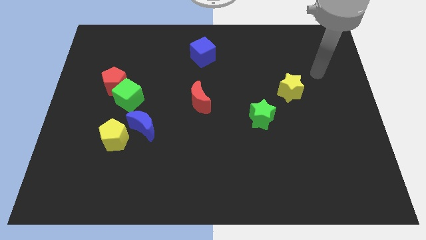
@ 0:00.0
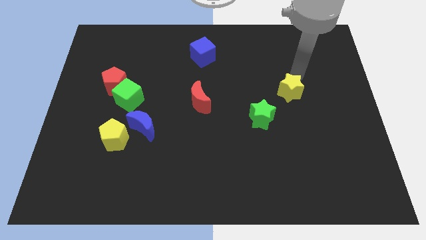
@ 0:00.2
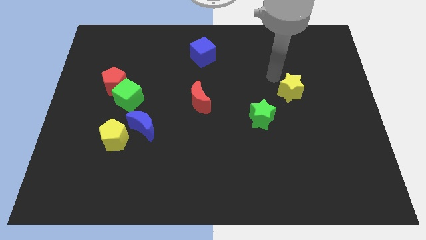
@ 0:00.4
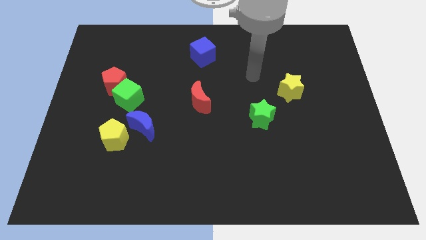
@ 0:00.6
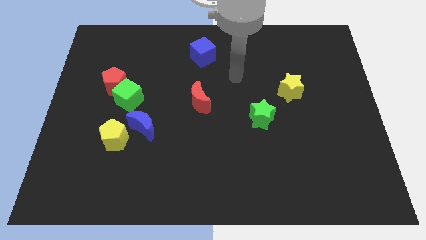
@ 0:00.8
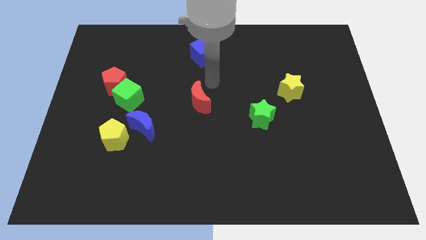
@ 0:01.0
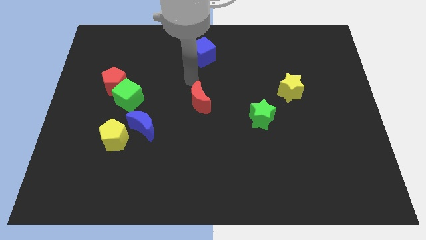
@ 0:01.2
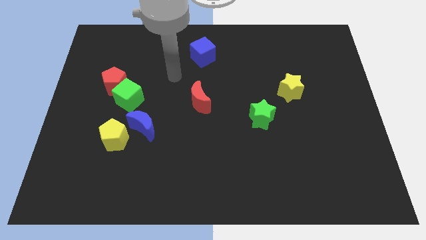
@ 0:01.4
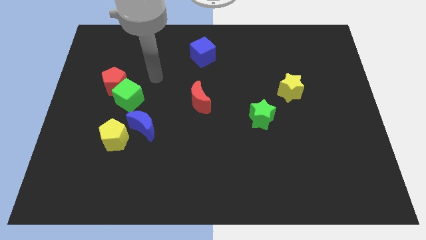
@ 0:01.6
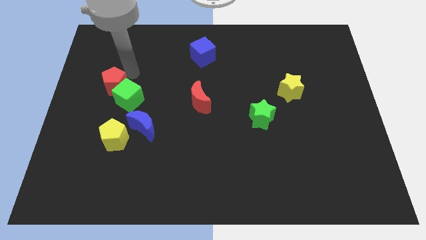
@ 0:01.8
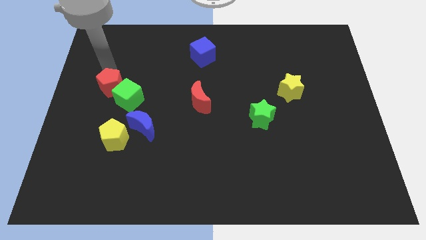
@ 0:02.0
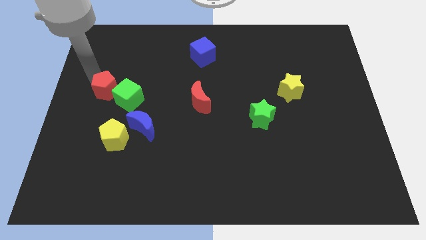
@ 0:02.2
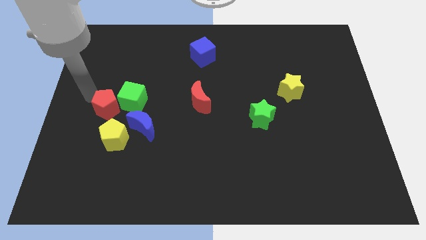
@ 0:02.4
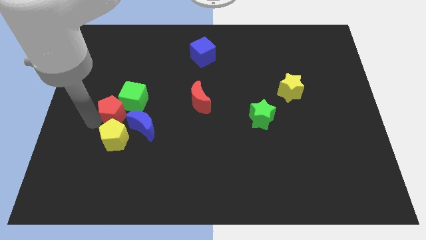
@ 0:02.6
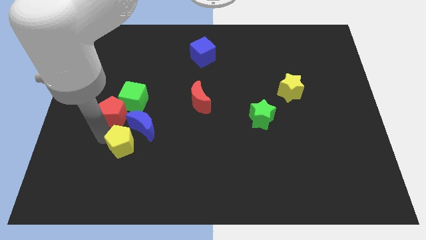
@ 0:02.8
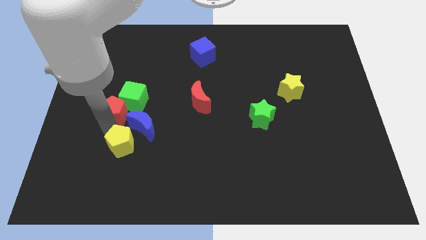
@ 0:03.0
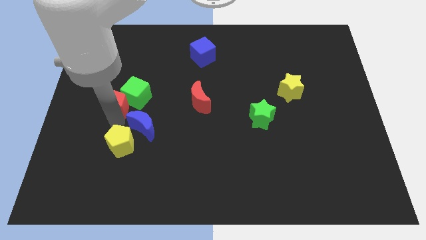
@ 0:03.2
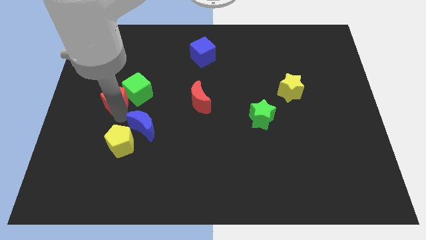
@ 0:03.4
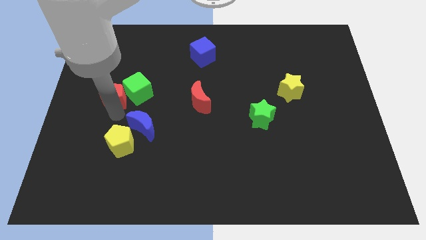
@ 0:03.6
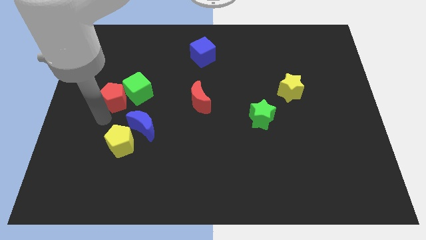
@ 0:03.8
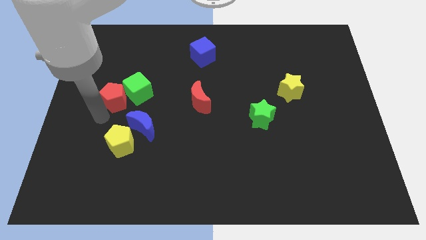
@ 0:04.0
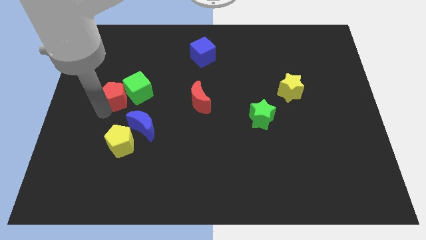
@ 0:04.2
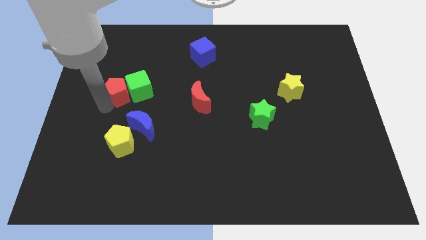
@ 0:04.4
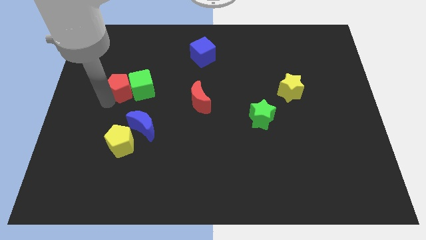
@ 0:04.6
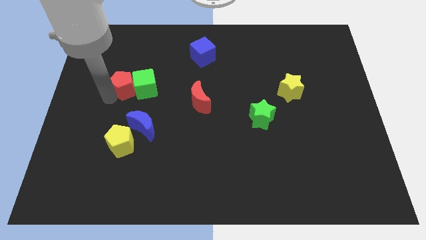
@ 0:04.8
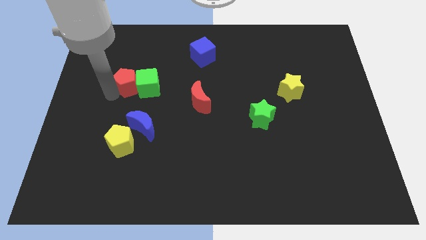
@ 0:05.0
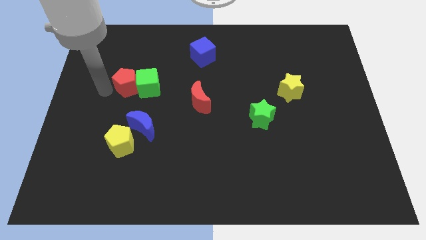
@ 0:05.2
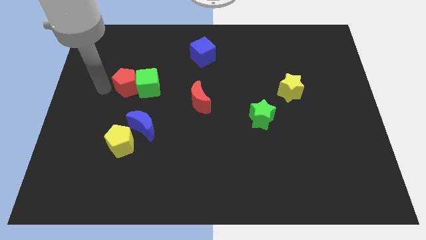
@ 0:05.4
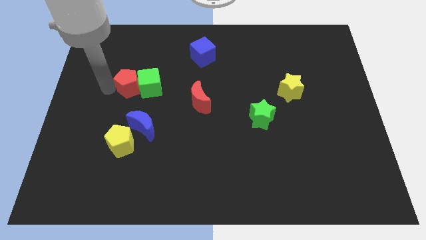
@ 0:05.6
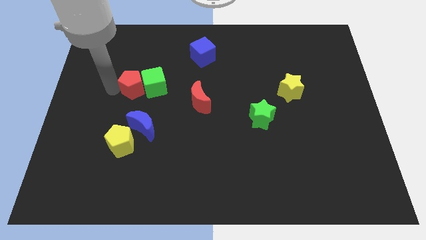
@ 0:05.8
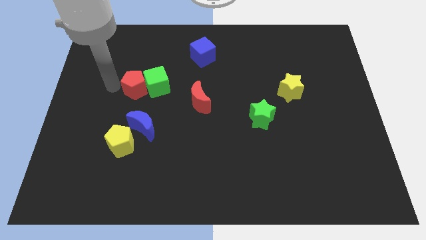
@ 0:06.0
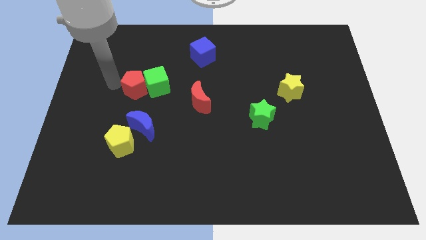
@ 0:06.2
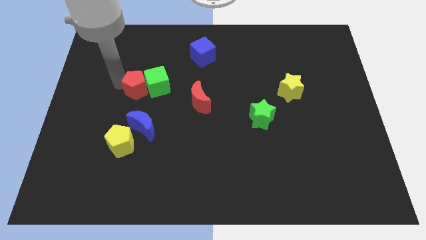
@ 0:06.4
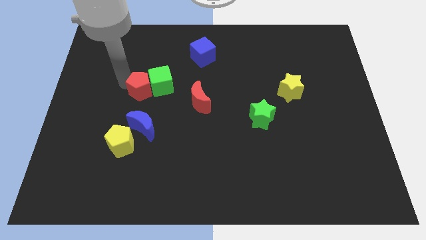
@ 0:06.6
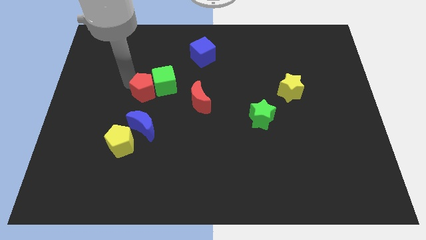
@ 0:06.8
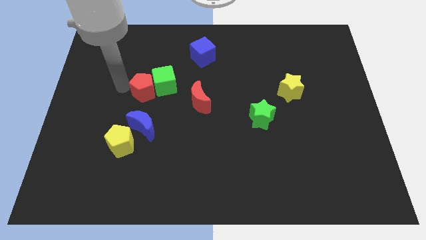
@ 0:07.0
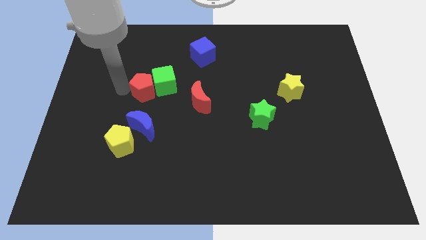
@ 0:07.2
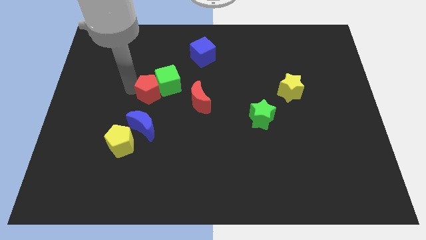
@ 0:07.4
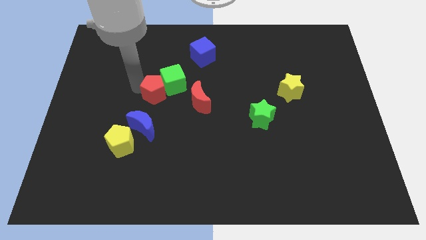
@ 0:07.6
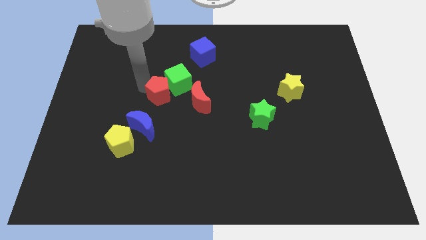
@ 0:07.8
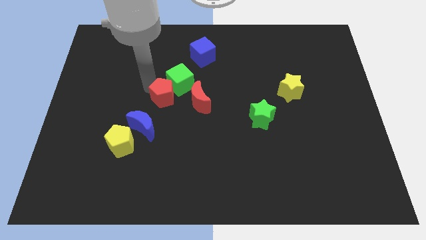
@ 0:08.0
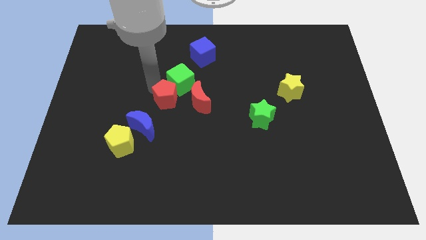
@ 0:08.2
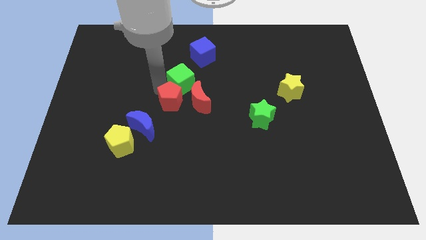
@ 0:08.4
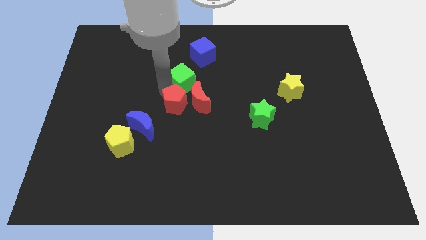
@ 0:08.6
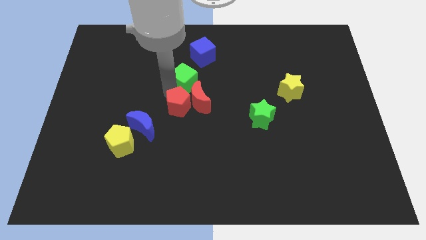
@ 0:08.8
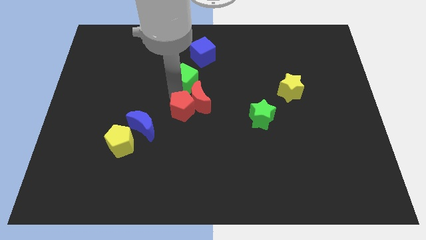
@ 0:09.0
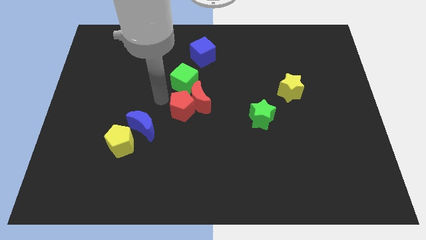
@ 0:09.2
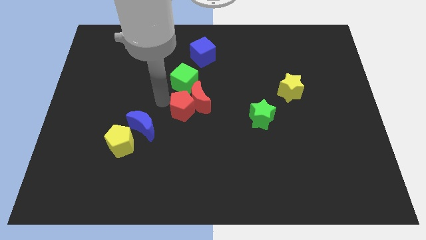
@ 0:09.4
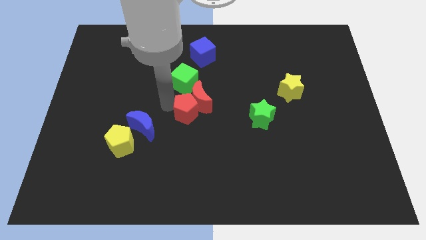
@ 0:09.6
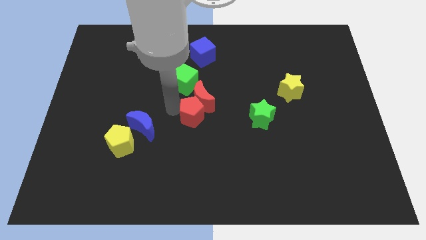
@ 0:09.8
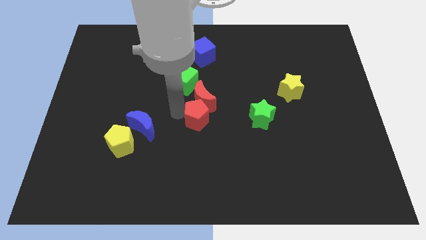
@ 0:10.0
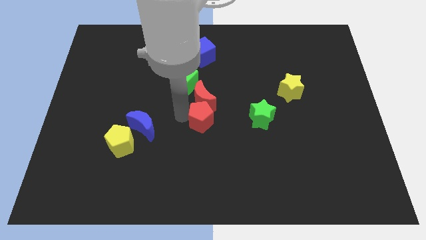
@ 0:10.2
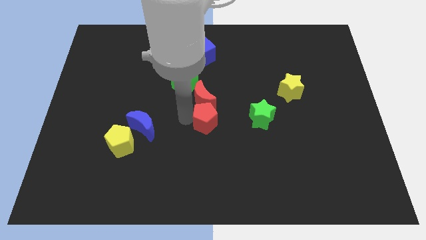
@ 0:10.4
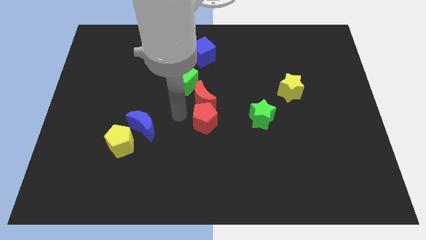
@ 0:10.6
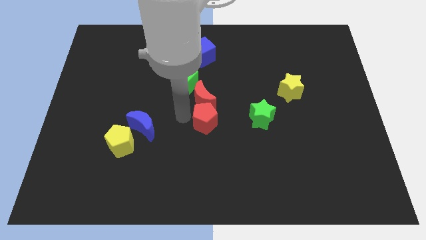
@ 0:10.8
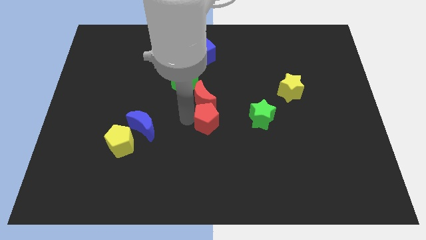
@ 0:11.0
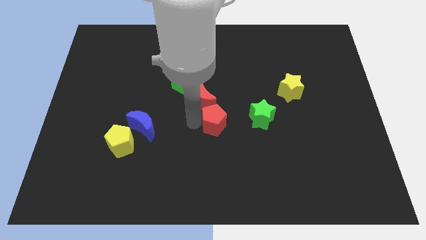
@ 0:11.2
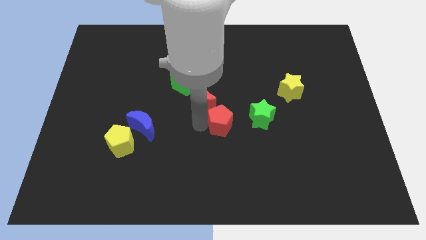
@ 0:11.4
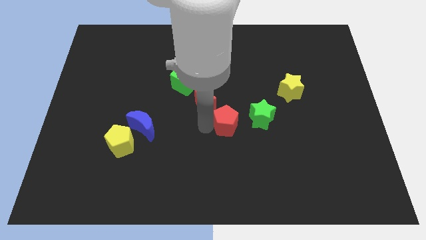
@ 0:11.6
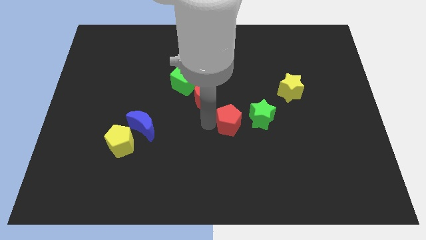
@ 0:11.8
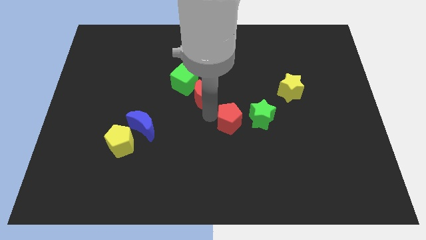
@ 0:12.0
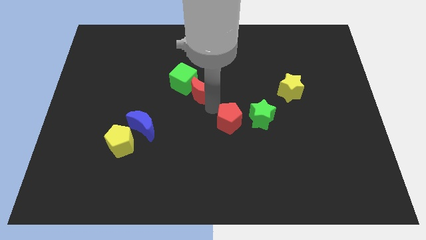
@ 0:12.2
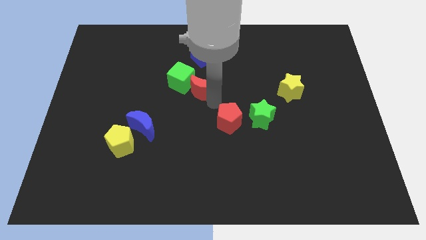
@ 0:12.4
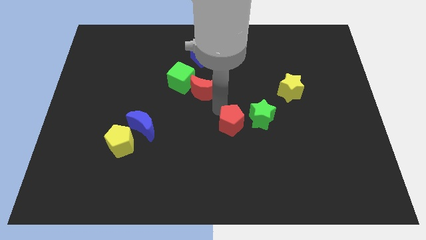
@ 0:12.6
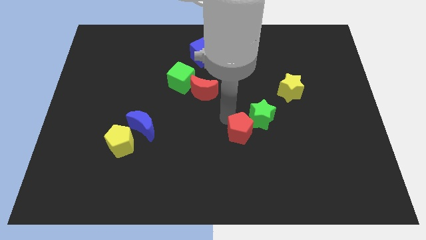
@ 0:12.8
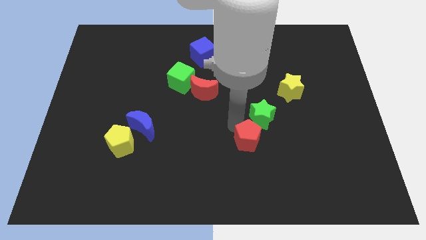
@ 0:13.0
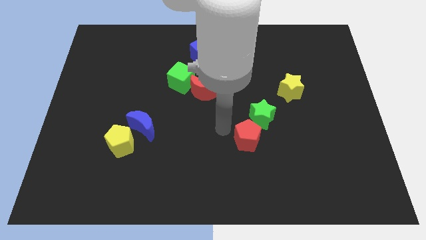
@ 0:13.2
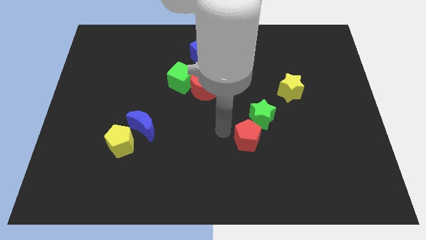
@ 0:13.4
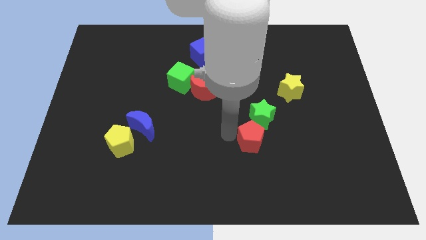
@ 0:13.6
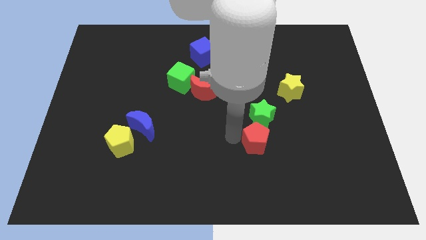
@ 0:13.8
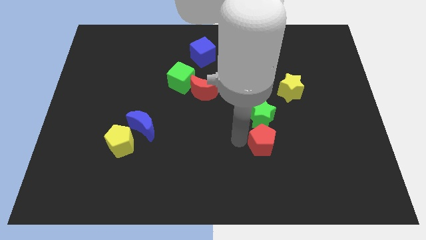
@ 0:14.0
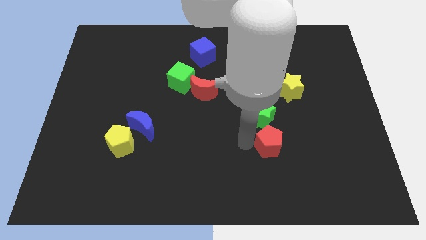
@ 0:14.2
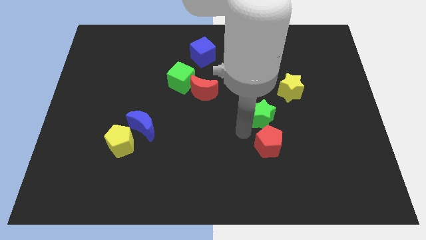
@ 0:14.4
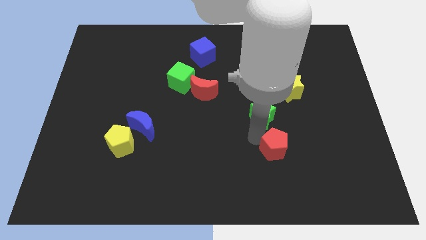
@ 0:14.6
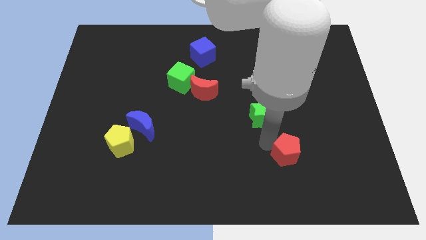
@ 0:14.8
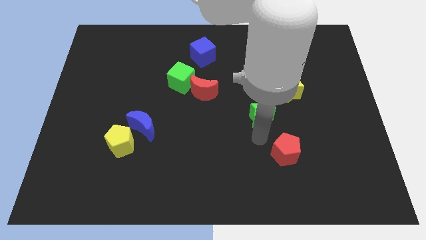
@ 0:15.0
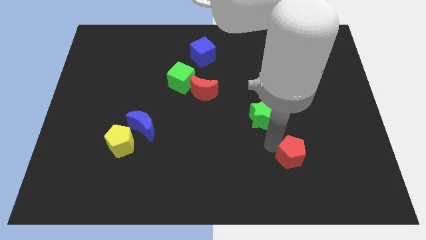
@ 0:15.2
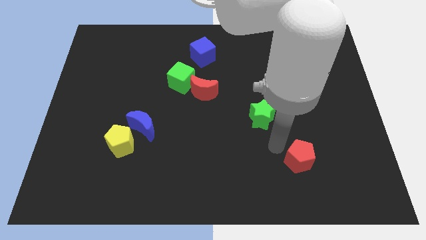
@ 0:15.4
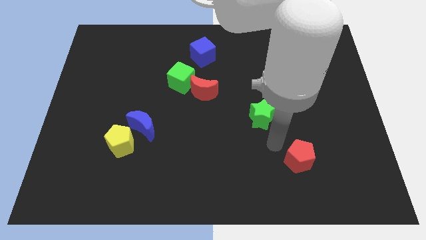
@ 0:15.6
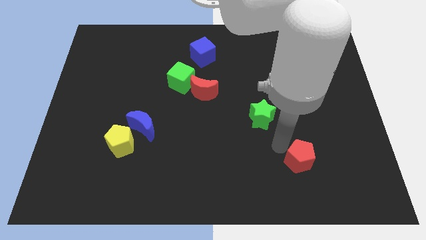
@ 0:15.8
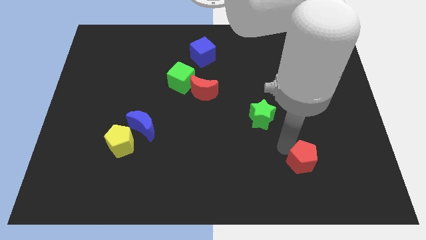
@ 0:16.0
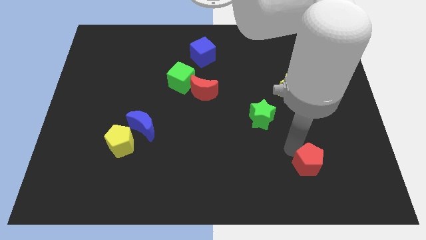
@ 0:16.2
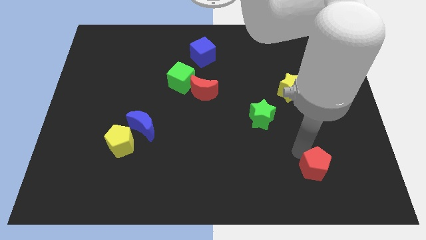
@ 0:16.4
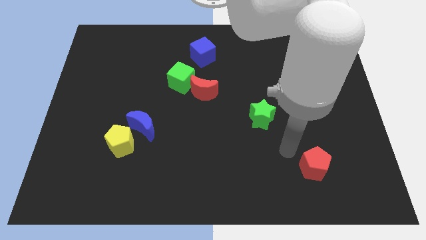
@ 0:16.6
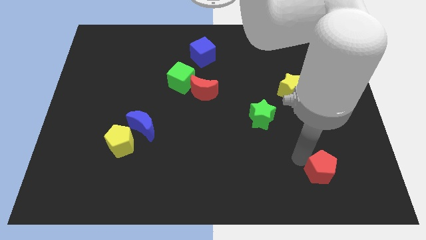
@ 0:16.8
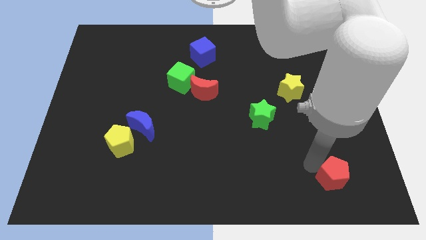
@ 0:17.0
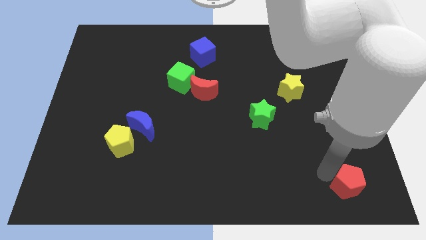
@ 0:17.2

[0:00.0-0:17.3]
push the red pentagon to the bottom right of the board
